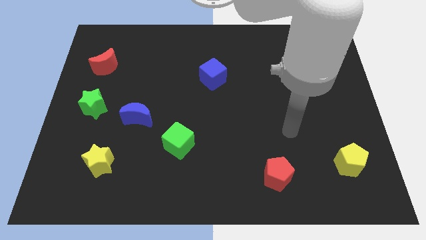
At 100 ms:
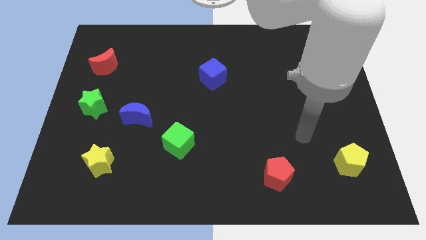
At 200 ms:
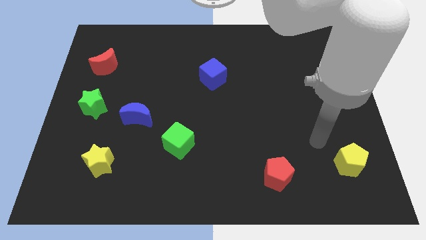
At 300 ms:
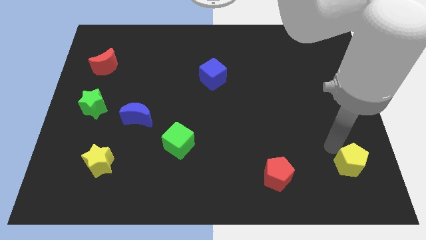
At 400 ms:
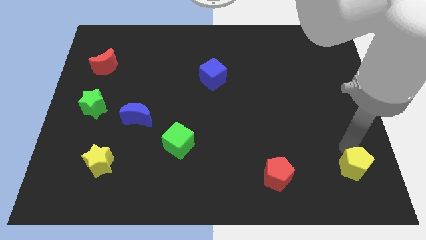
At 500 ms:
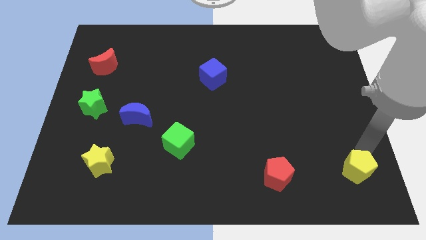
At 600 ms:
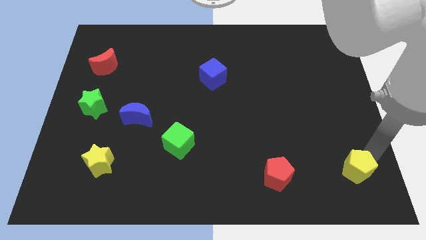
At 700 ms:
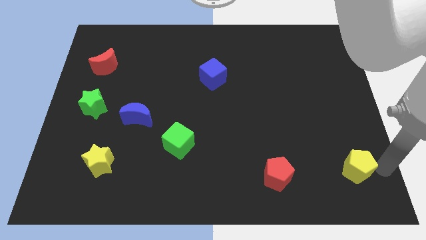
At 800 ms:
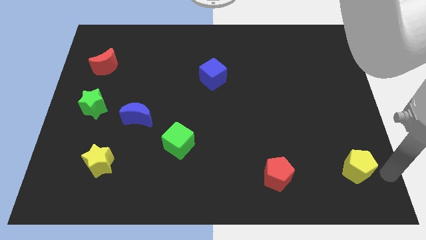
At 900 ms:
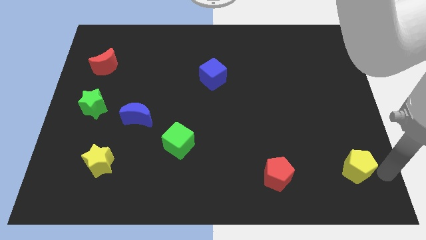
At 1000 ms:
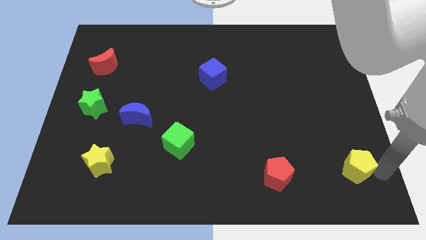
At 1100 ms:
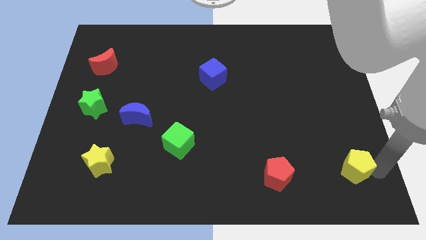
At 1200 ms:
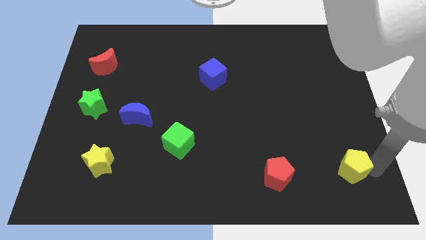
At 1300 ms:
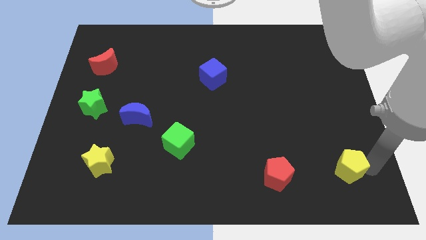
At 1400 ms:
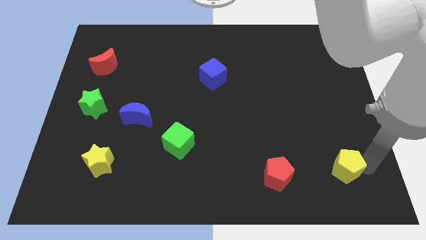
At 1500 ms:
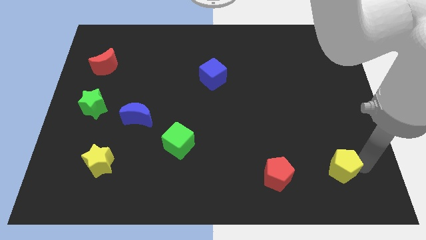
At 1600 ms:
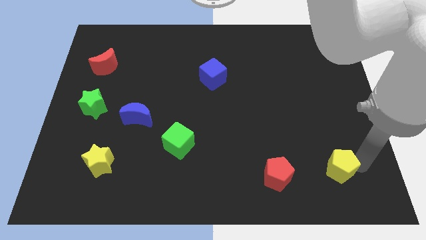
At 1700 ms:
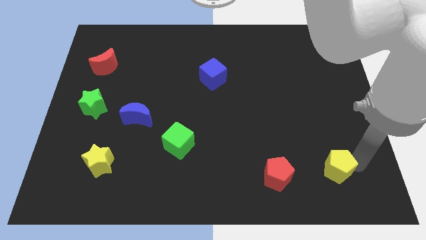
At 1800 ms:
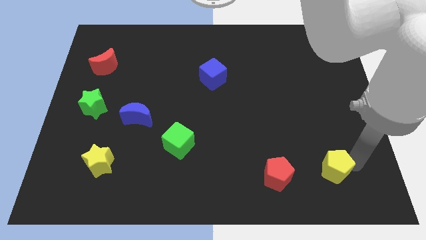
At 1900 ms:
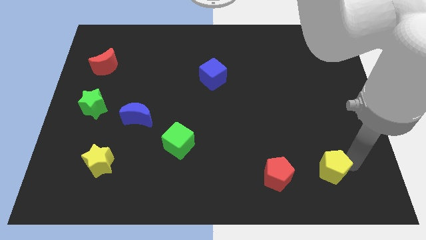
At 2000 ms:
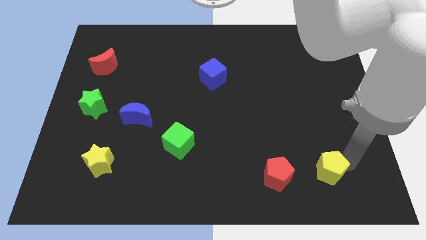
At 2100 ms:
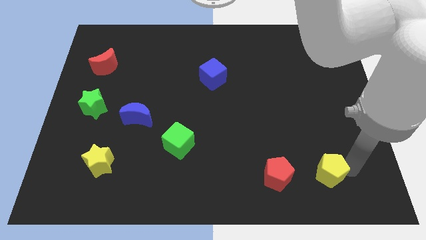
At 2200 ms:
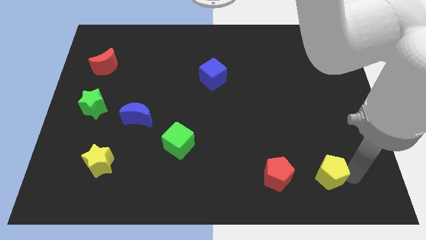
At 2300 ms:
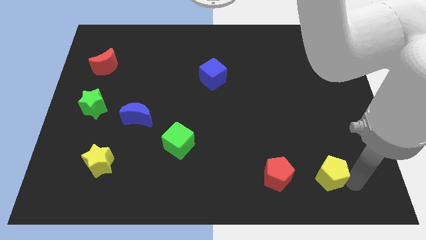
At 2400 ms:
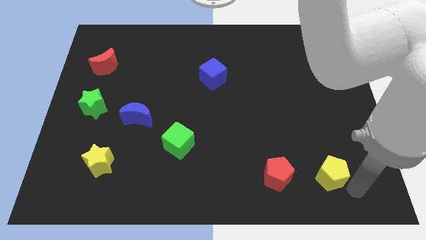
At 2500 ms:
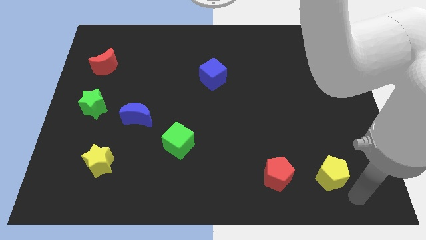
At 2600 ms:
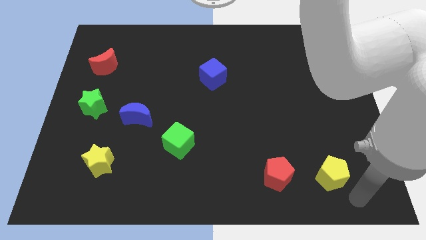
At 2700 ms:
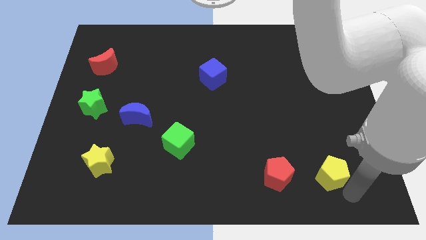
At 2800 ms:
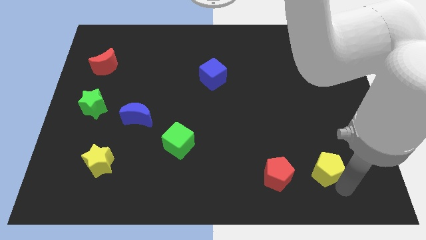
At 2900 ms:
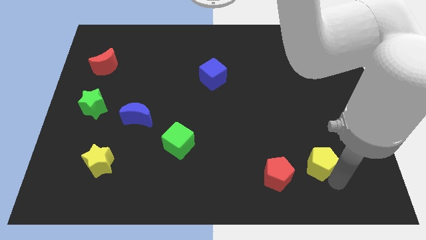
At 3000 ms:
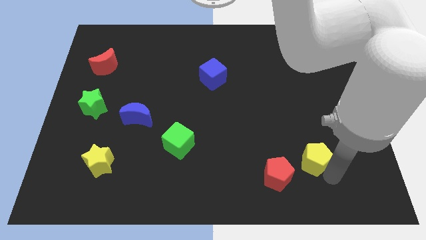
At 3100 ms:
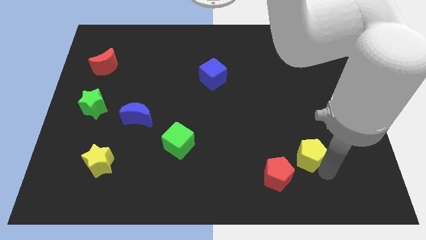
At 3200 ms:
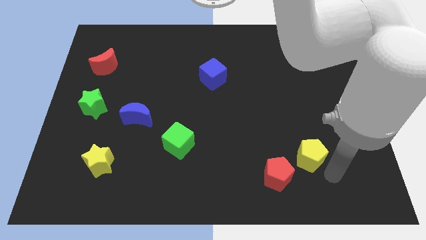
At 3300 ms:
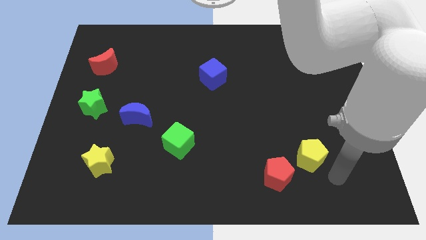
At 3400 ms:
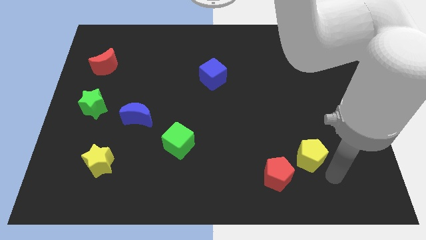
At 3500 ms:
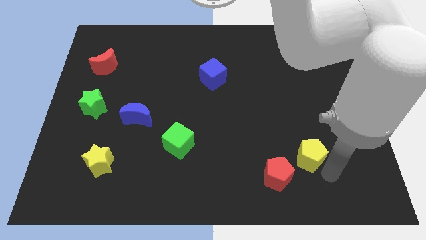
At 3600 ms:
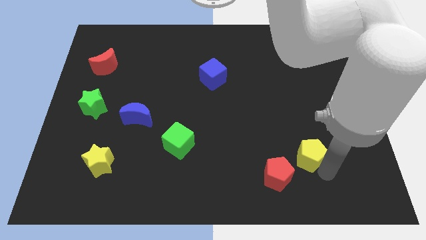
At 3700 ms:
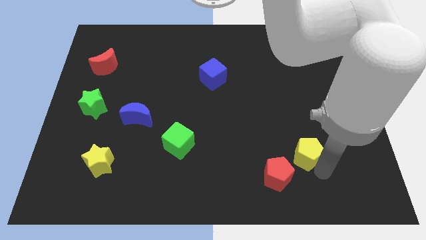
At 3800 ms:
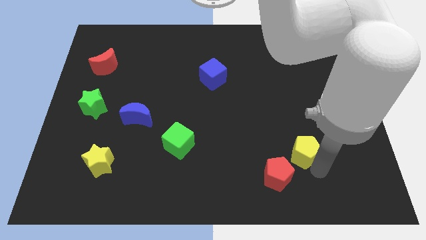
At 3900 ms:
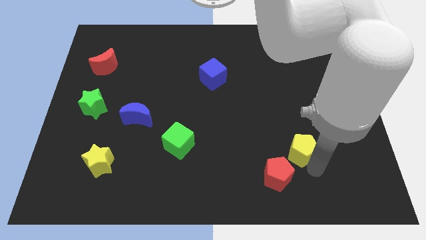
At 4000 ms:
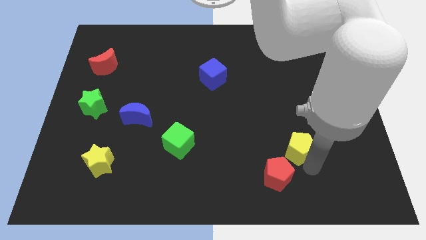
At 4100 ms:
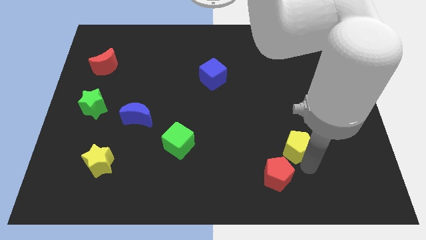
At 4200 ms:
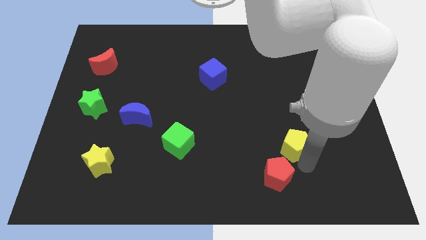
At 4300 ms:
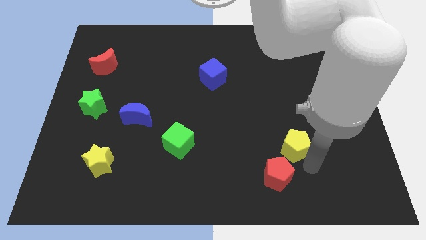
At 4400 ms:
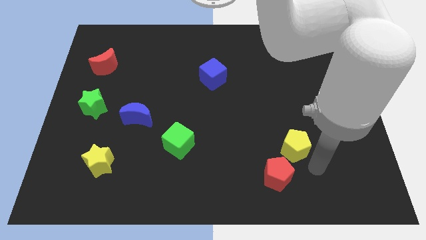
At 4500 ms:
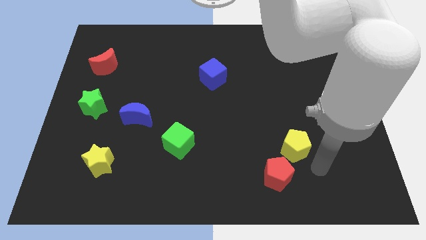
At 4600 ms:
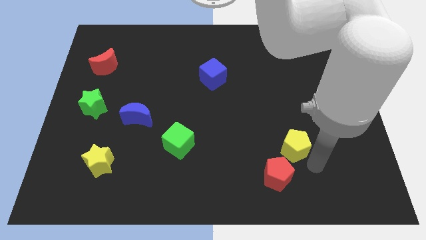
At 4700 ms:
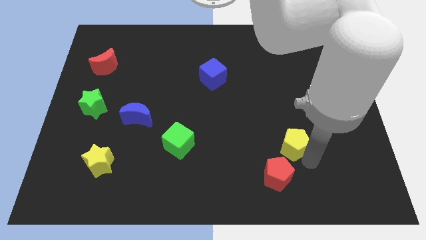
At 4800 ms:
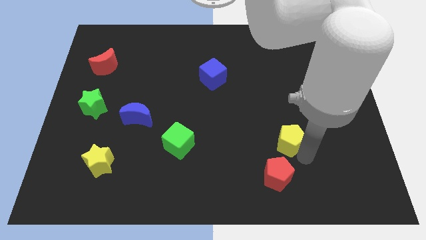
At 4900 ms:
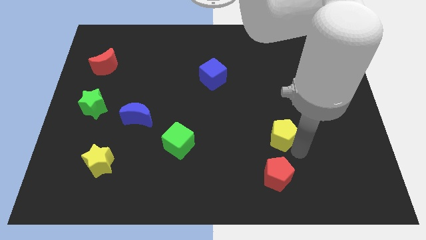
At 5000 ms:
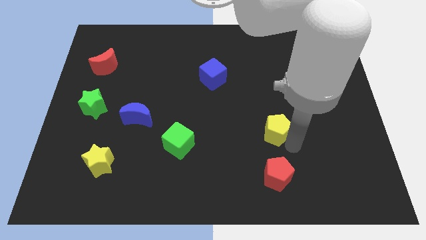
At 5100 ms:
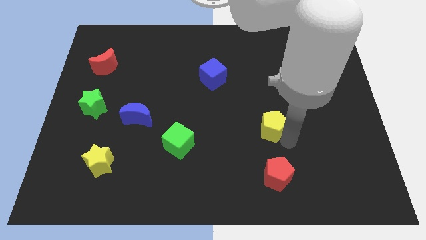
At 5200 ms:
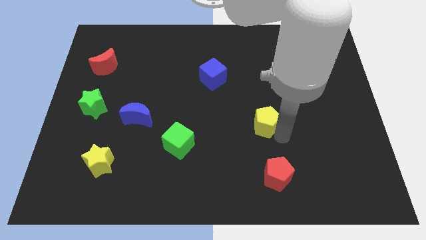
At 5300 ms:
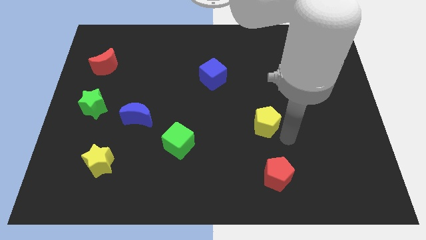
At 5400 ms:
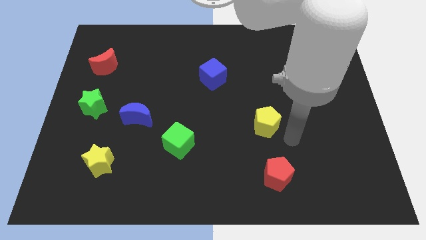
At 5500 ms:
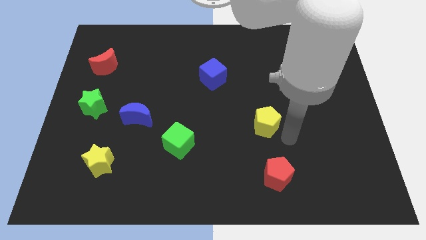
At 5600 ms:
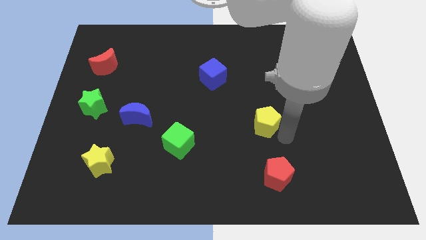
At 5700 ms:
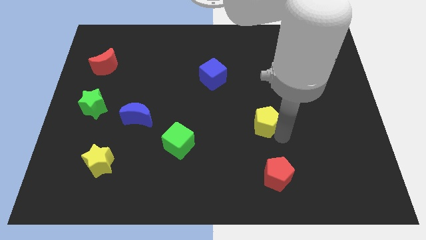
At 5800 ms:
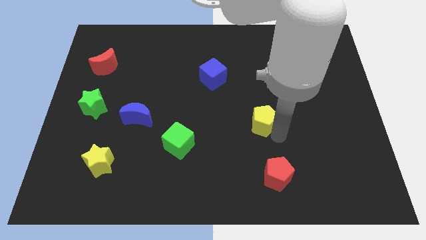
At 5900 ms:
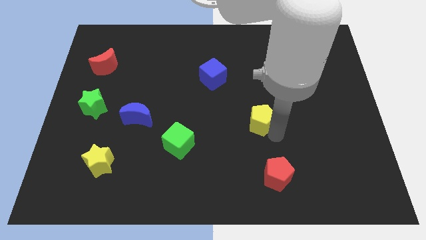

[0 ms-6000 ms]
slide the yellow pentagon to the middle of the board

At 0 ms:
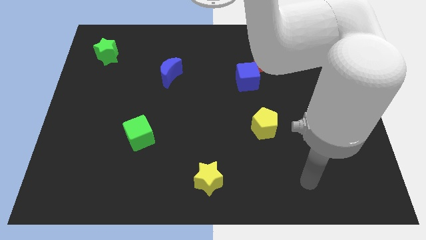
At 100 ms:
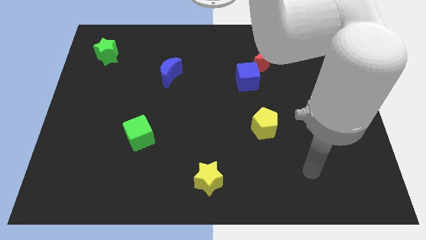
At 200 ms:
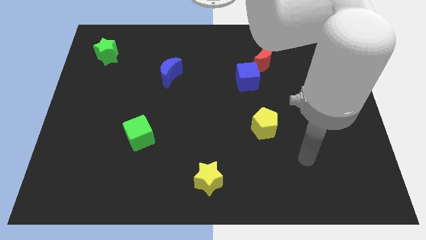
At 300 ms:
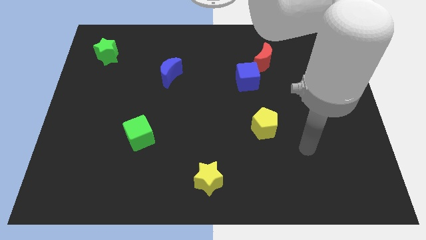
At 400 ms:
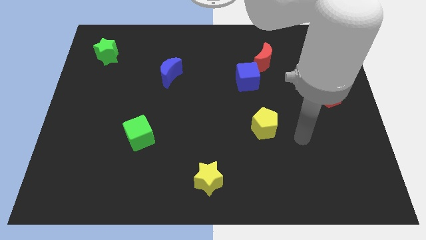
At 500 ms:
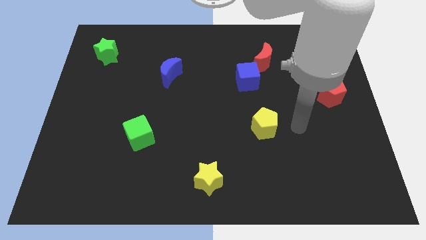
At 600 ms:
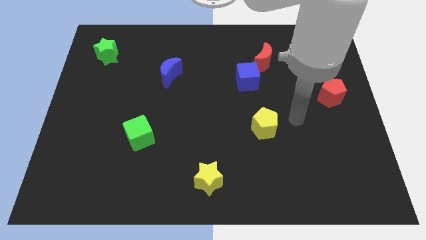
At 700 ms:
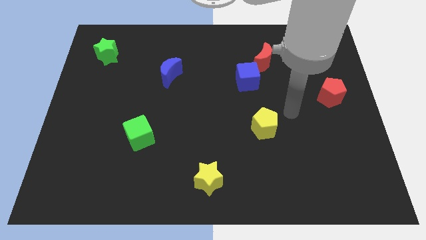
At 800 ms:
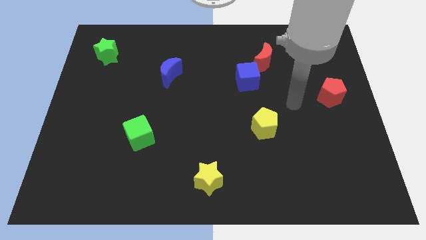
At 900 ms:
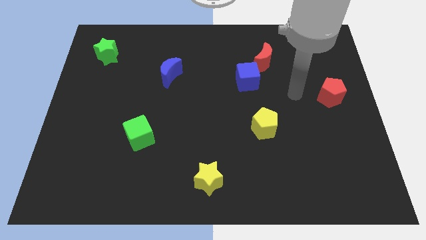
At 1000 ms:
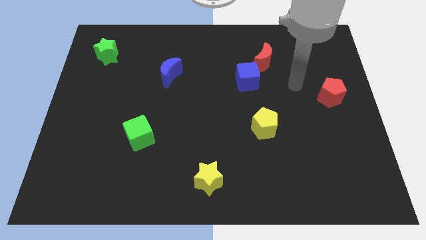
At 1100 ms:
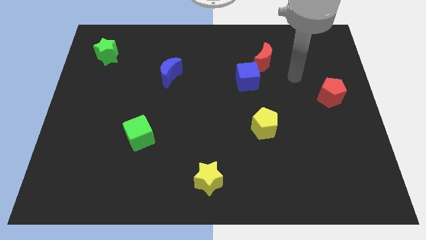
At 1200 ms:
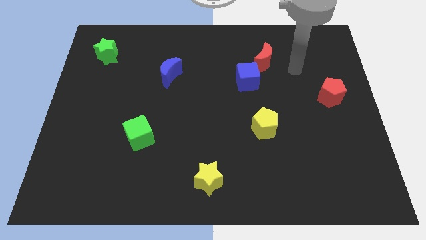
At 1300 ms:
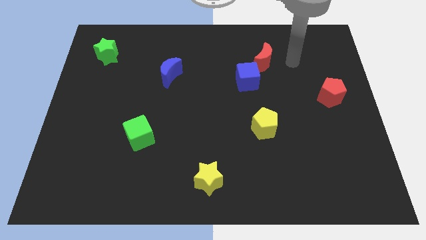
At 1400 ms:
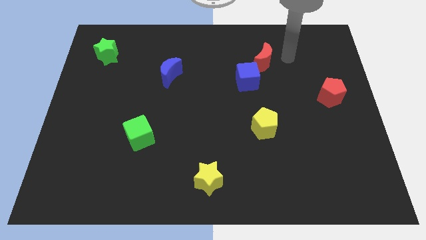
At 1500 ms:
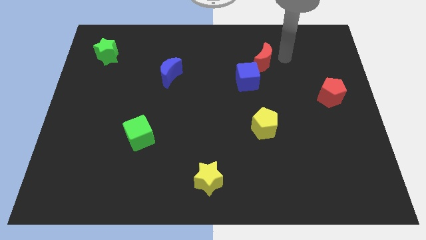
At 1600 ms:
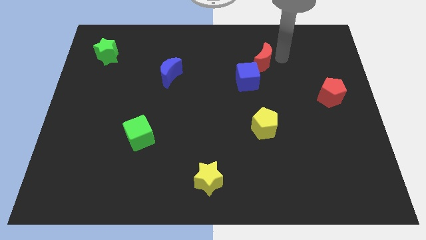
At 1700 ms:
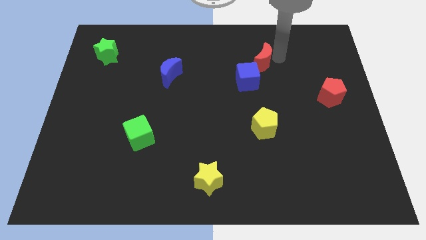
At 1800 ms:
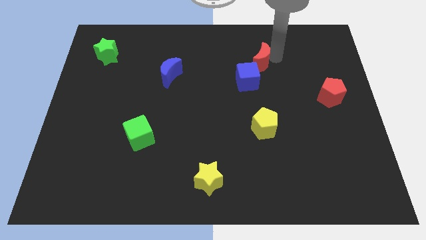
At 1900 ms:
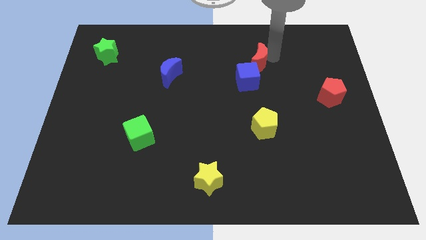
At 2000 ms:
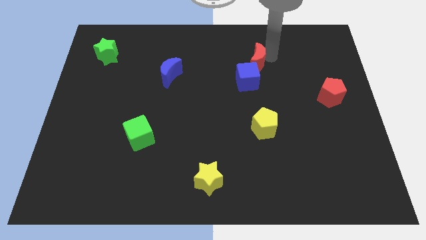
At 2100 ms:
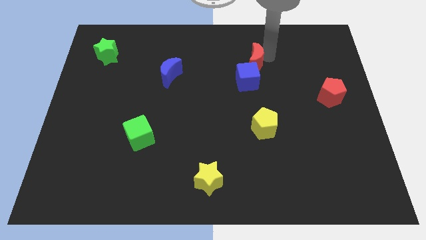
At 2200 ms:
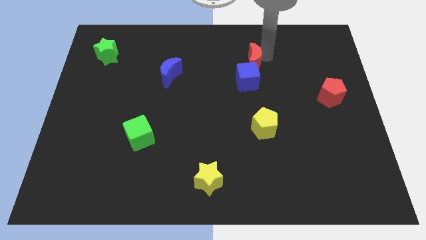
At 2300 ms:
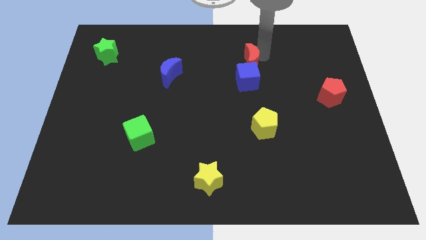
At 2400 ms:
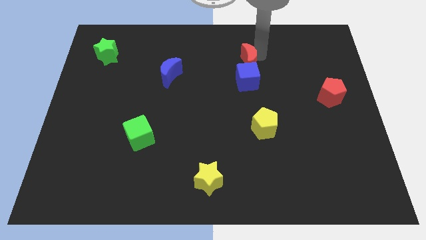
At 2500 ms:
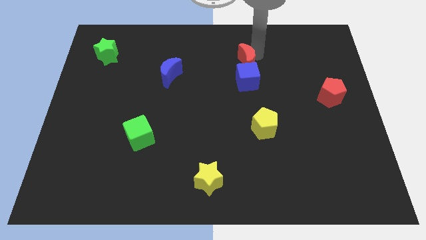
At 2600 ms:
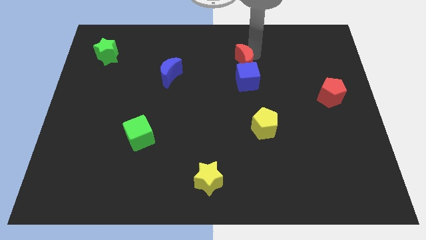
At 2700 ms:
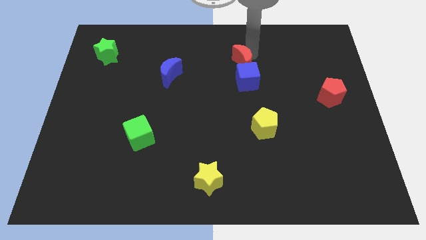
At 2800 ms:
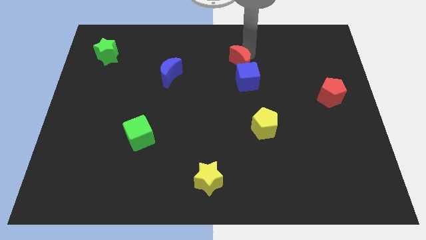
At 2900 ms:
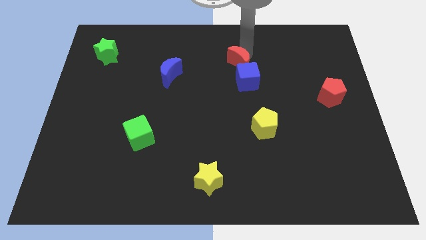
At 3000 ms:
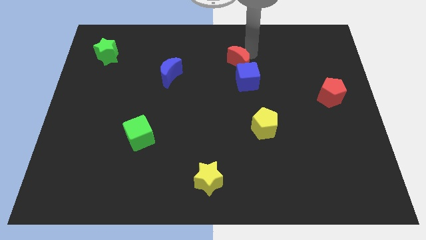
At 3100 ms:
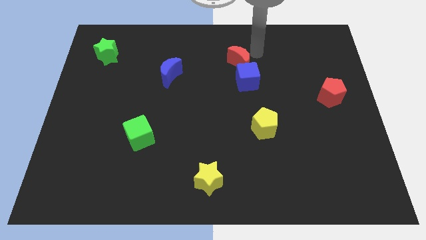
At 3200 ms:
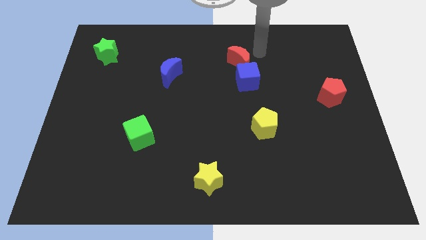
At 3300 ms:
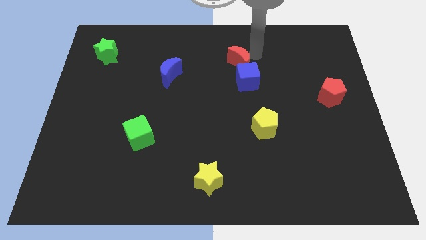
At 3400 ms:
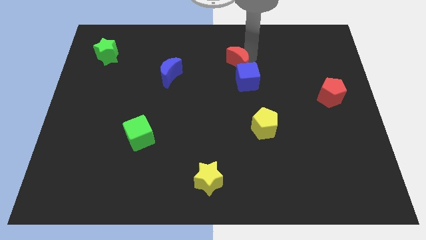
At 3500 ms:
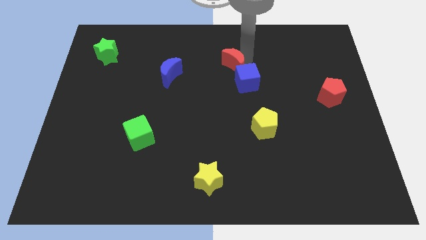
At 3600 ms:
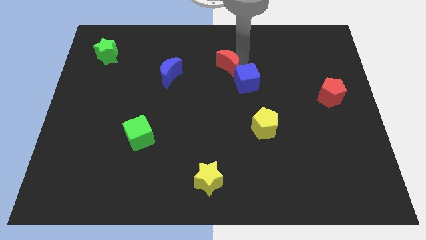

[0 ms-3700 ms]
move the red moon to the center
